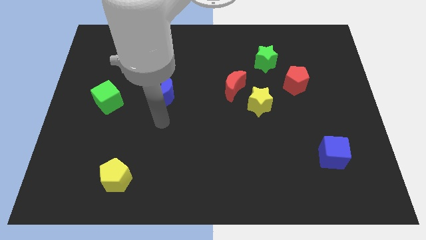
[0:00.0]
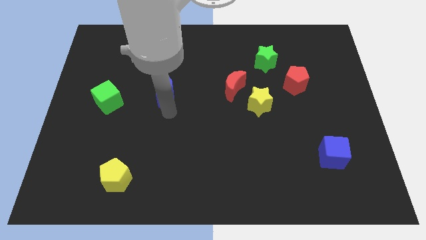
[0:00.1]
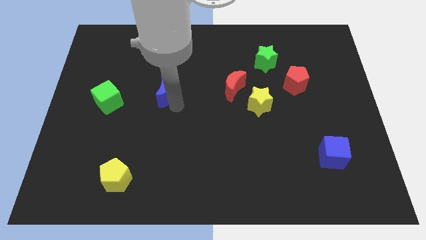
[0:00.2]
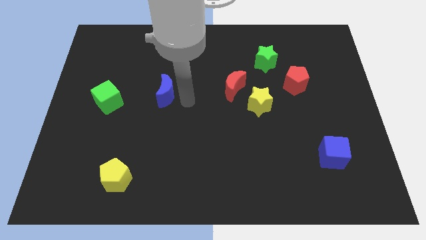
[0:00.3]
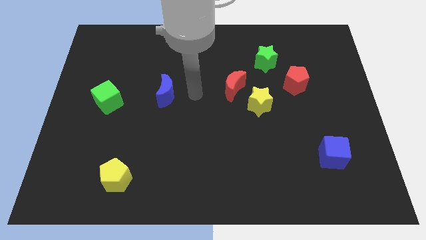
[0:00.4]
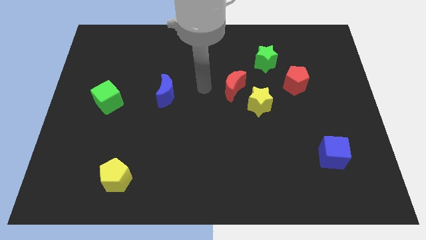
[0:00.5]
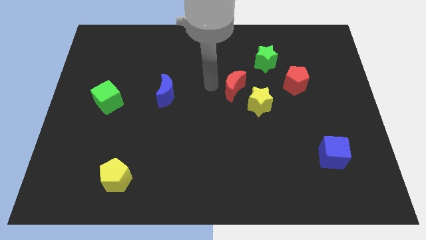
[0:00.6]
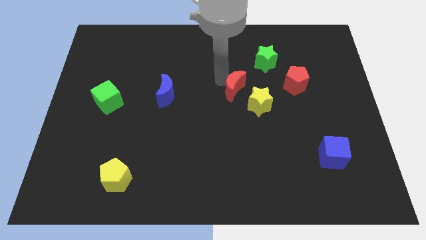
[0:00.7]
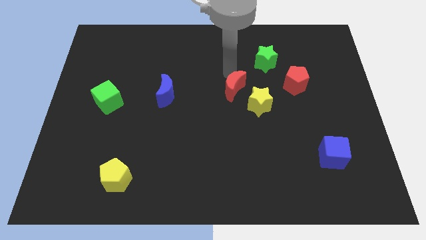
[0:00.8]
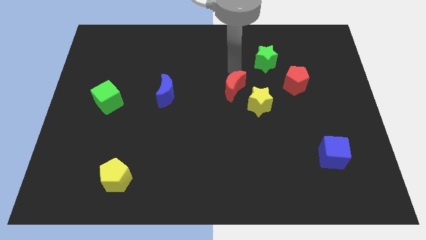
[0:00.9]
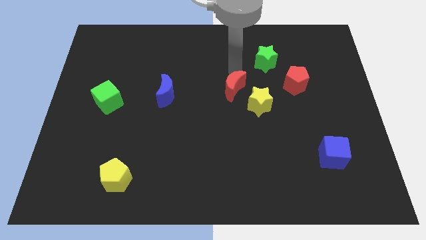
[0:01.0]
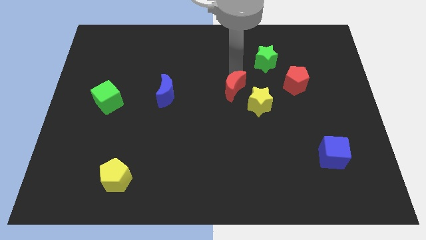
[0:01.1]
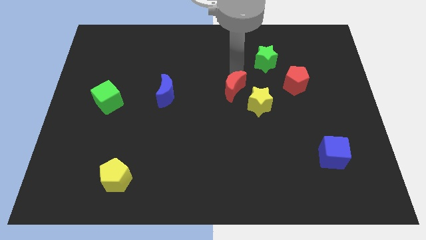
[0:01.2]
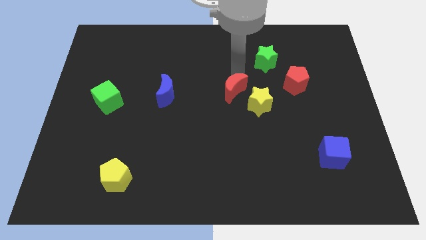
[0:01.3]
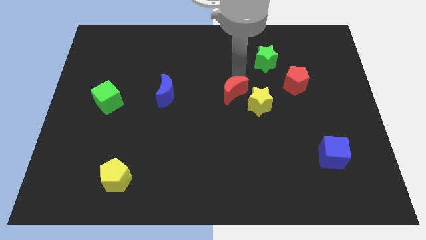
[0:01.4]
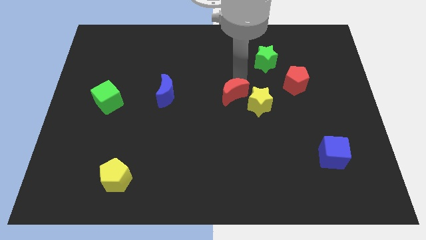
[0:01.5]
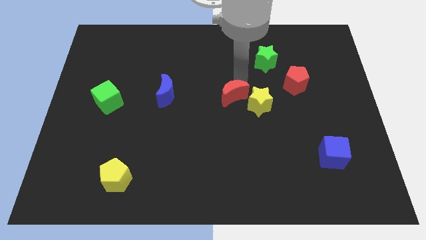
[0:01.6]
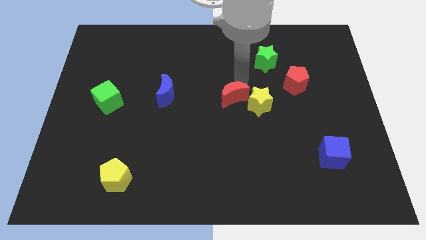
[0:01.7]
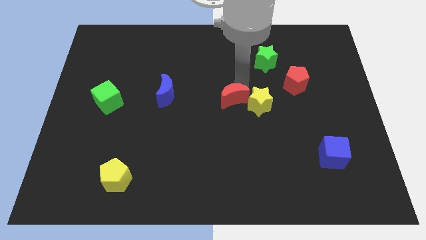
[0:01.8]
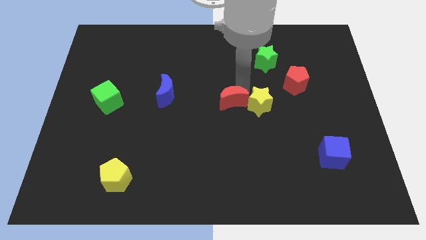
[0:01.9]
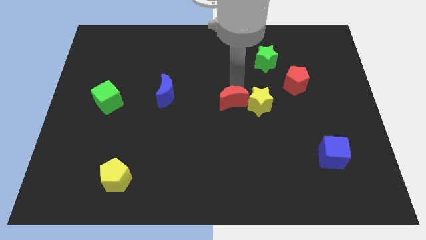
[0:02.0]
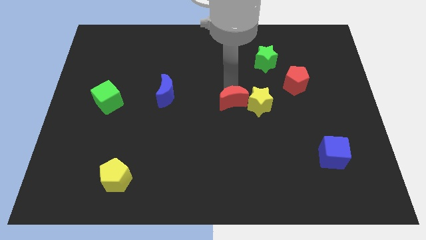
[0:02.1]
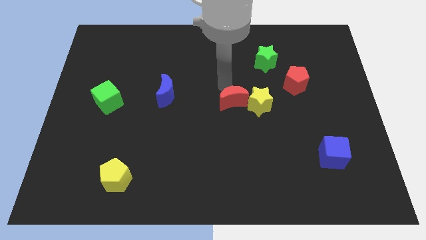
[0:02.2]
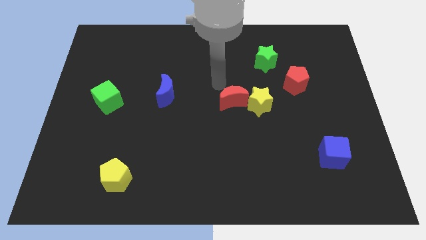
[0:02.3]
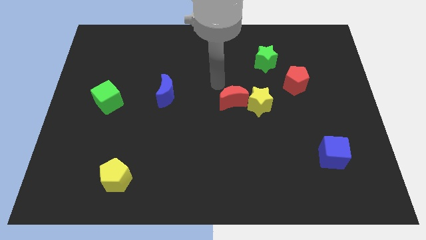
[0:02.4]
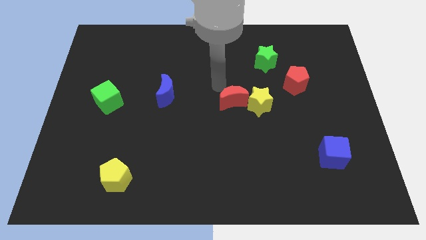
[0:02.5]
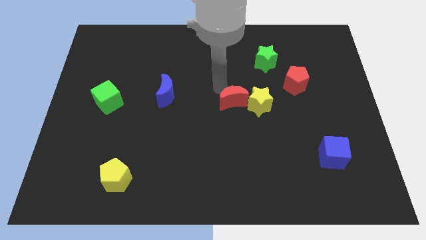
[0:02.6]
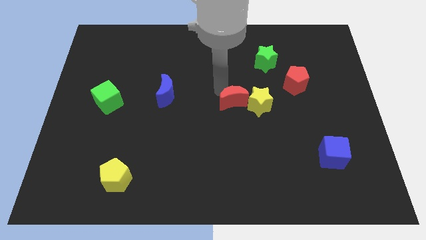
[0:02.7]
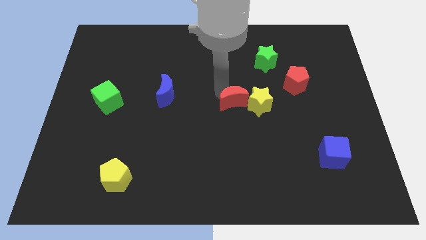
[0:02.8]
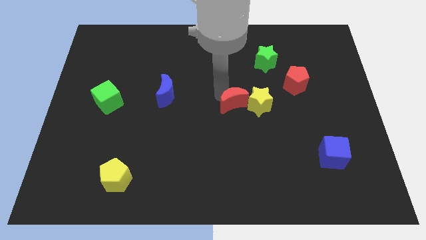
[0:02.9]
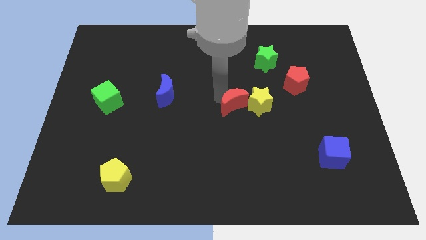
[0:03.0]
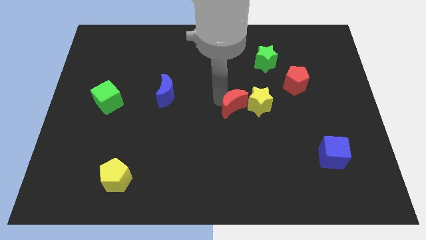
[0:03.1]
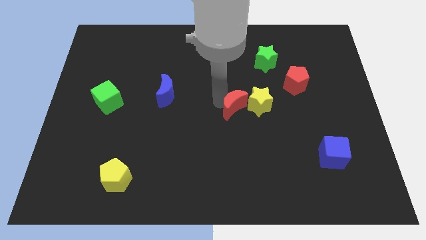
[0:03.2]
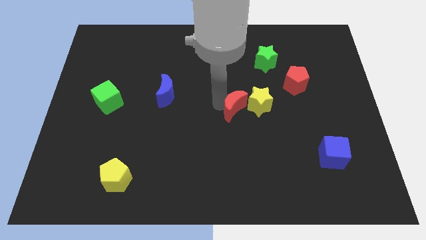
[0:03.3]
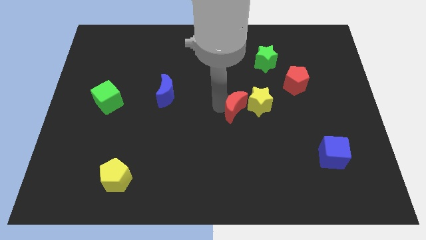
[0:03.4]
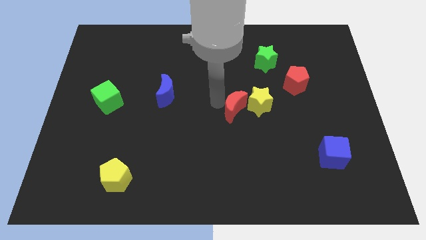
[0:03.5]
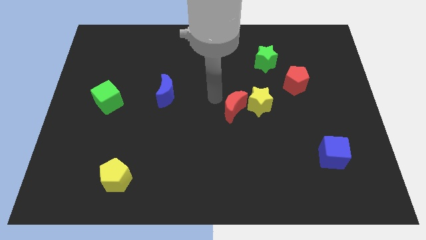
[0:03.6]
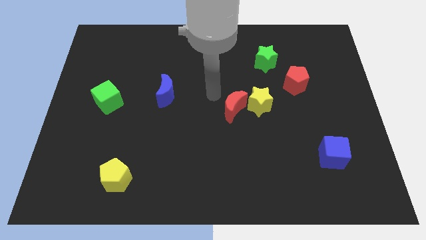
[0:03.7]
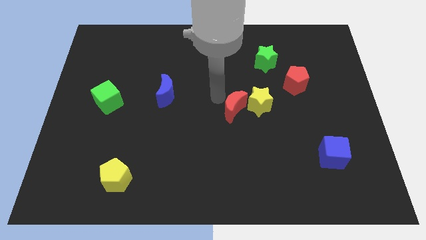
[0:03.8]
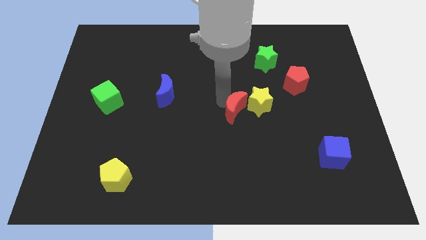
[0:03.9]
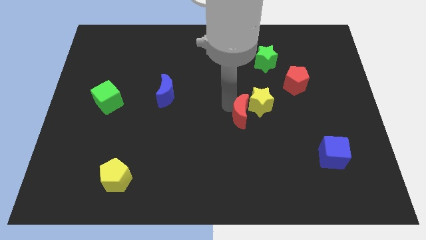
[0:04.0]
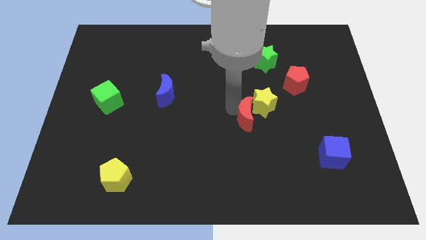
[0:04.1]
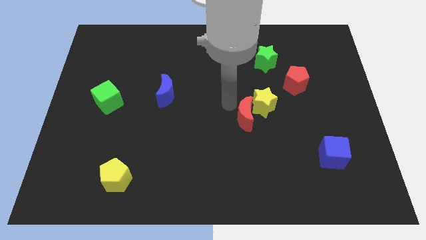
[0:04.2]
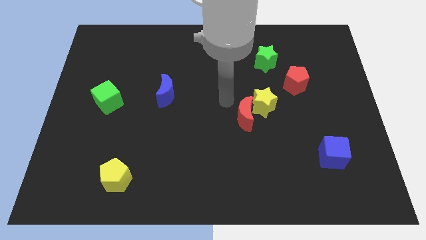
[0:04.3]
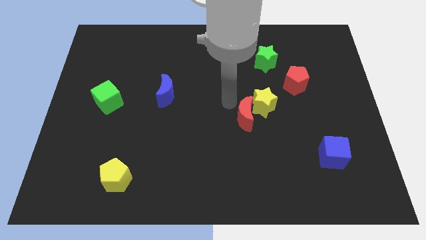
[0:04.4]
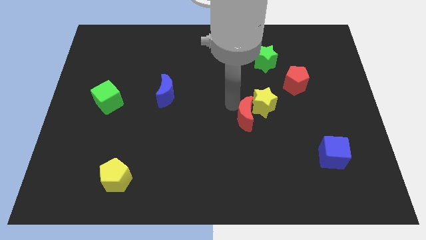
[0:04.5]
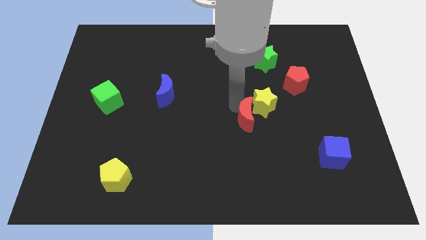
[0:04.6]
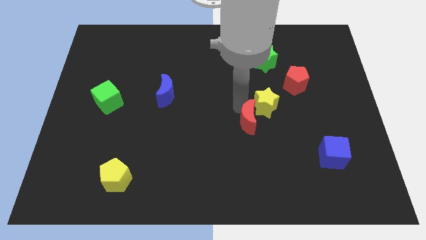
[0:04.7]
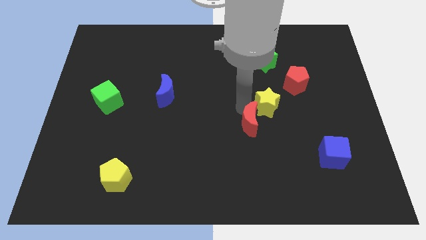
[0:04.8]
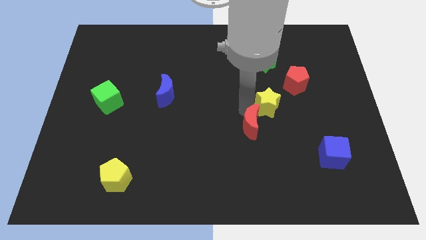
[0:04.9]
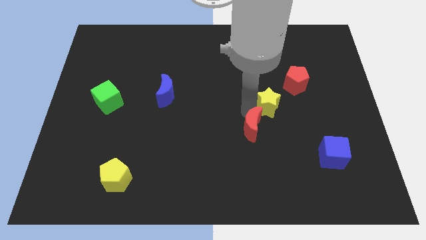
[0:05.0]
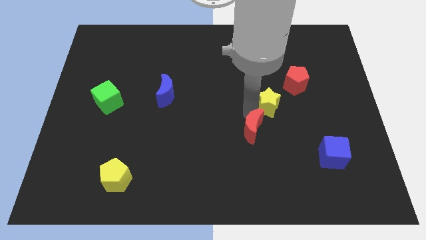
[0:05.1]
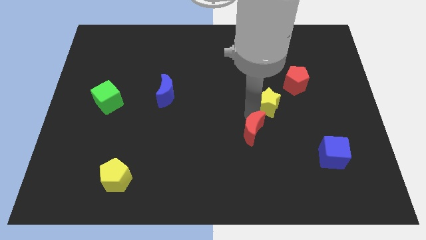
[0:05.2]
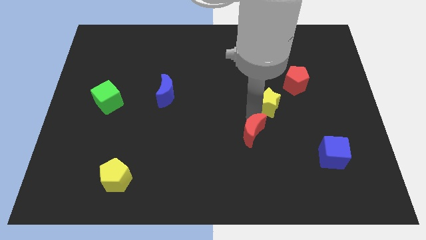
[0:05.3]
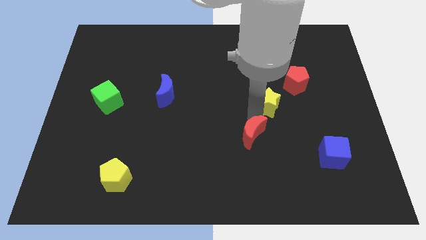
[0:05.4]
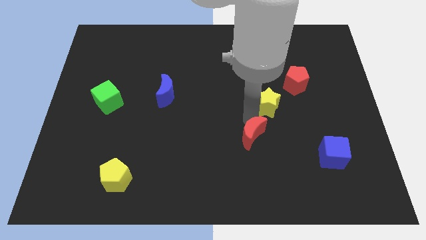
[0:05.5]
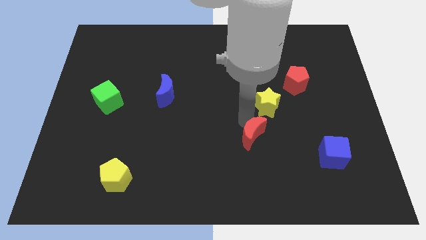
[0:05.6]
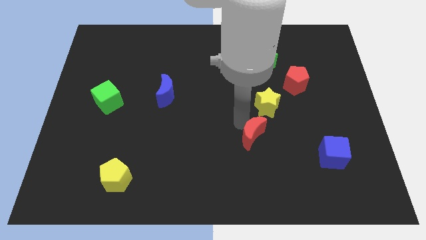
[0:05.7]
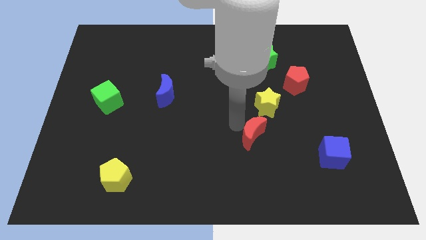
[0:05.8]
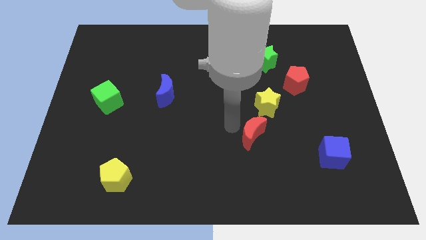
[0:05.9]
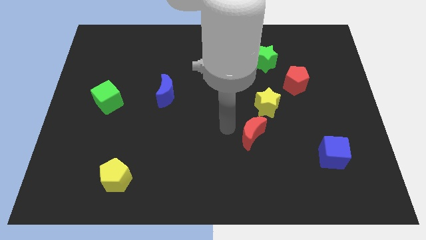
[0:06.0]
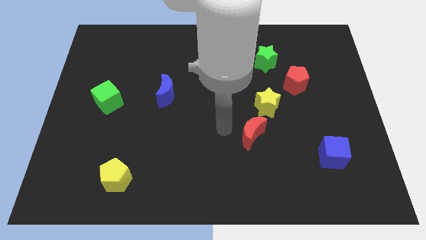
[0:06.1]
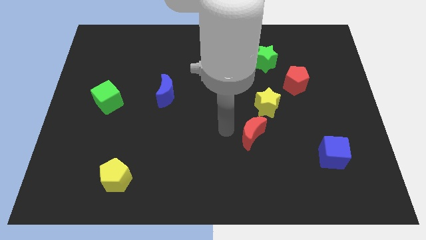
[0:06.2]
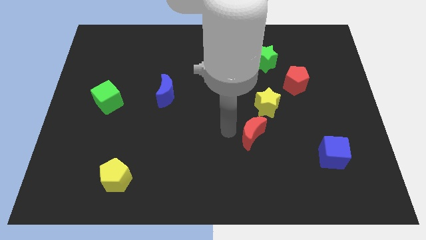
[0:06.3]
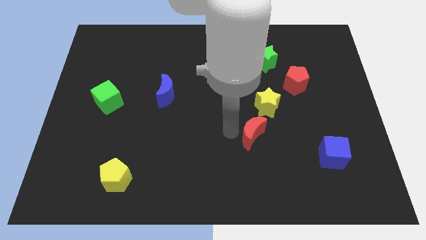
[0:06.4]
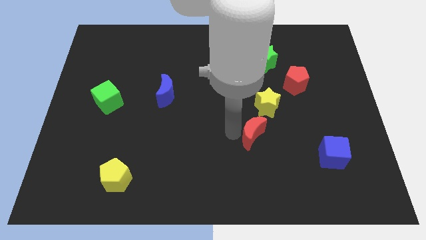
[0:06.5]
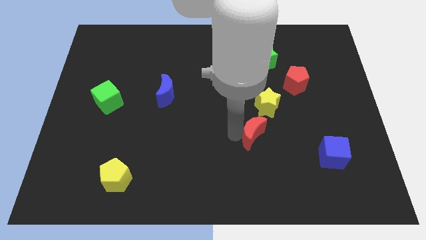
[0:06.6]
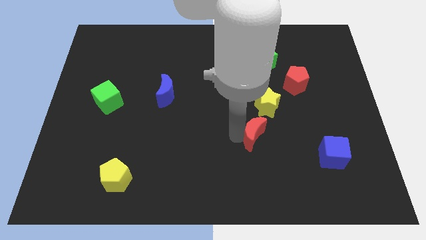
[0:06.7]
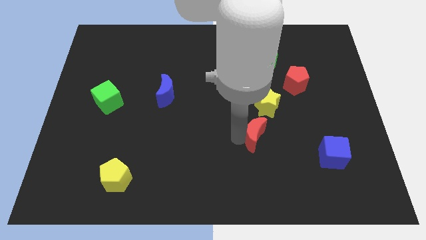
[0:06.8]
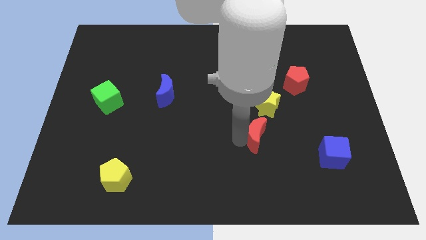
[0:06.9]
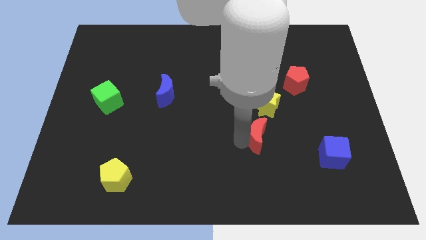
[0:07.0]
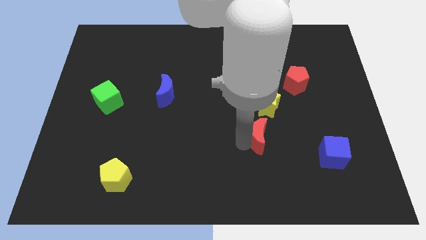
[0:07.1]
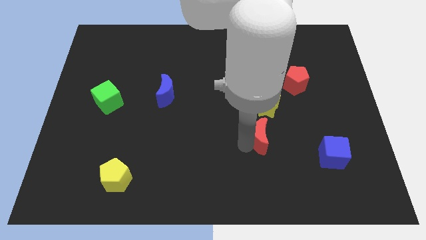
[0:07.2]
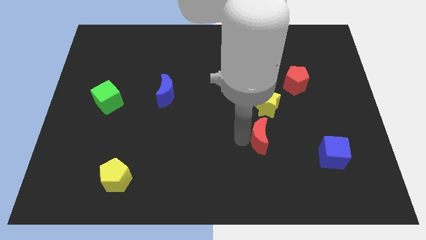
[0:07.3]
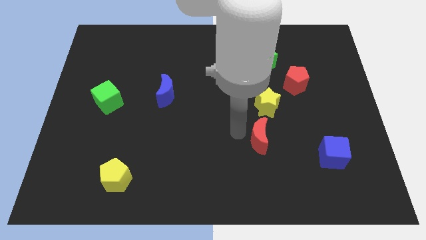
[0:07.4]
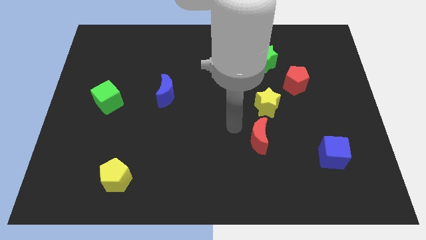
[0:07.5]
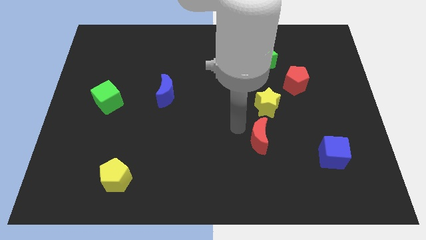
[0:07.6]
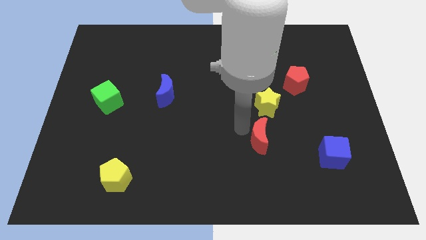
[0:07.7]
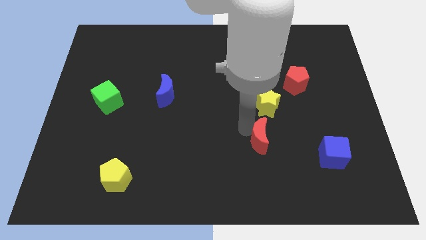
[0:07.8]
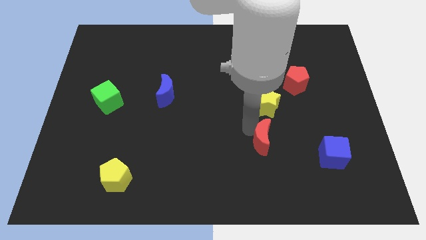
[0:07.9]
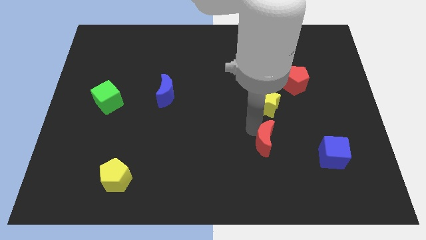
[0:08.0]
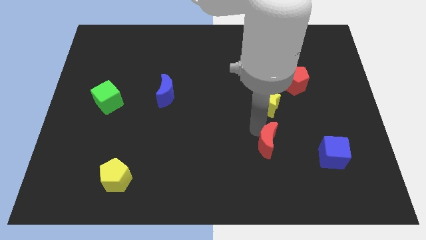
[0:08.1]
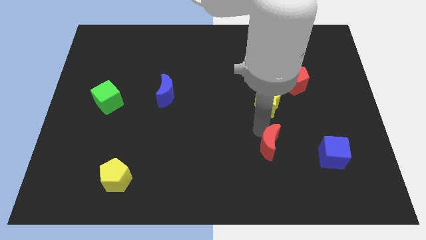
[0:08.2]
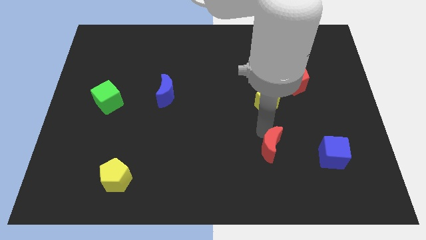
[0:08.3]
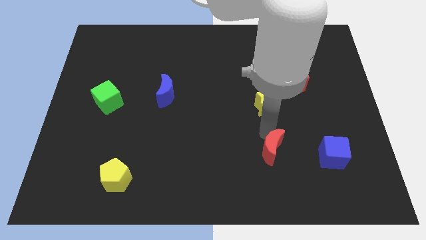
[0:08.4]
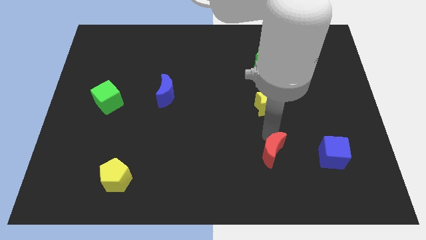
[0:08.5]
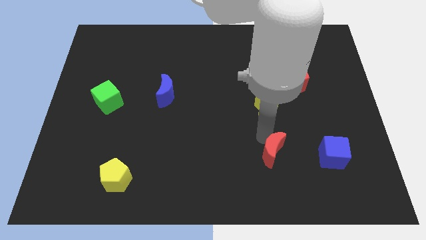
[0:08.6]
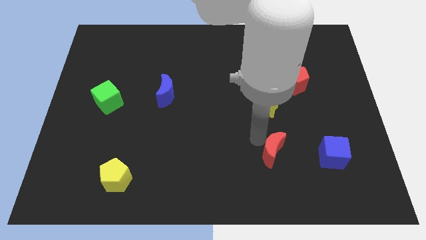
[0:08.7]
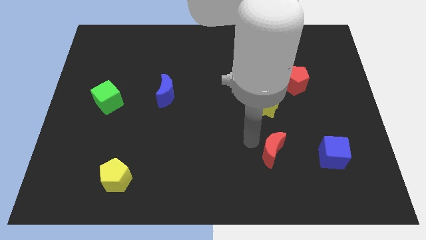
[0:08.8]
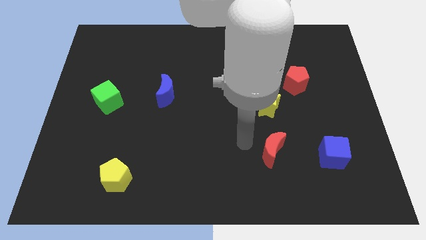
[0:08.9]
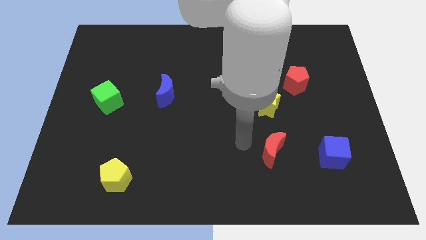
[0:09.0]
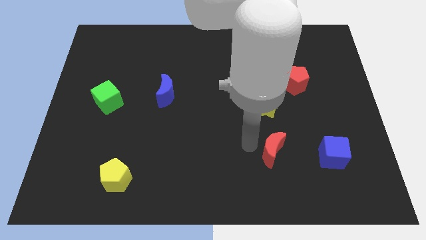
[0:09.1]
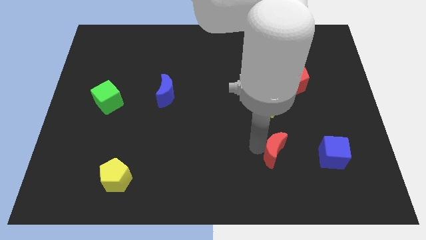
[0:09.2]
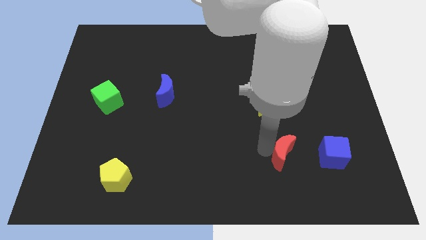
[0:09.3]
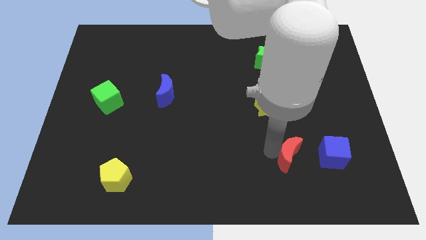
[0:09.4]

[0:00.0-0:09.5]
move the red moon down and to the right diagonally
